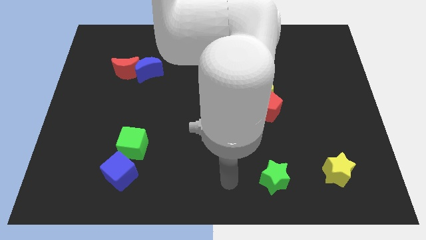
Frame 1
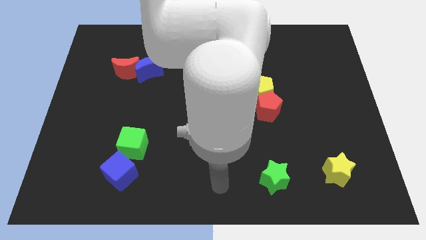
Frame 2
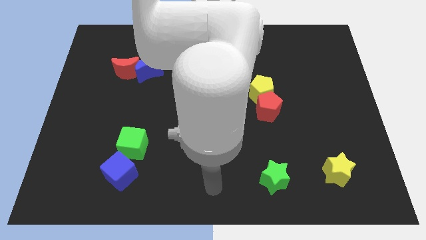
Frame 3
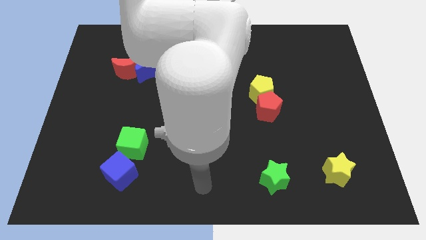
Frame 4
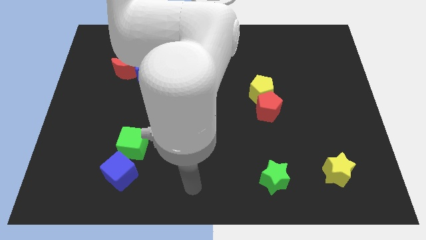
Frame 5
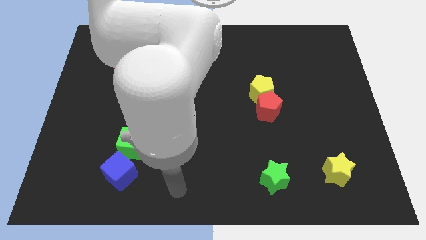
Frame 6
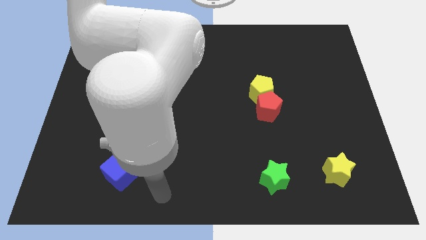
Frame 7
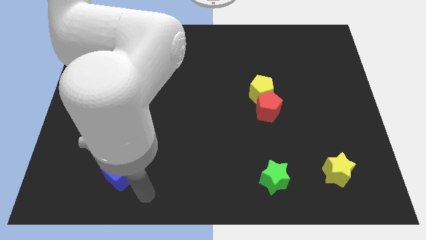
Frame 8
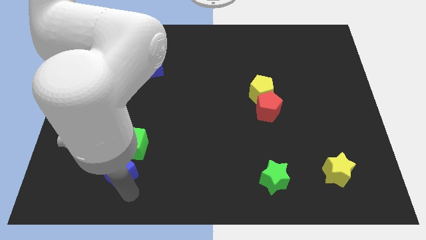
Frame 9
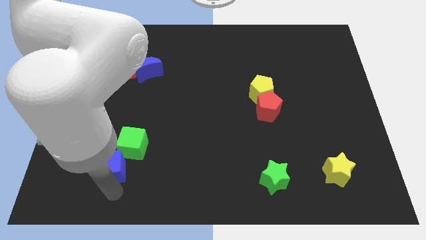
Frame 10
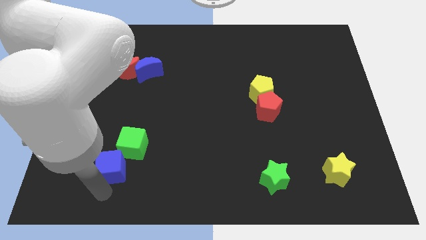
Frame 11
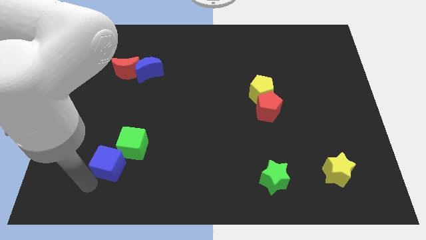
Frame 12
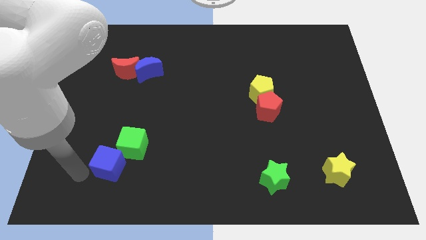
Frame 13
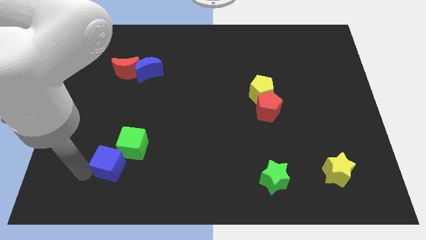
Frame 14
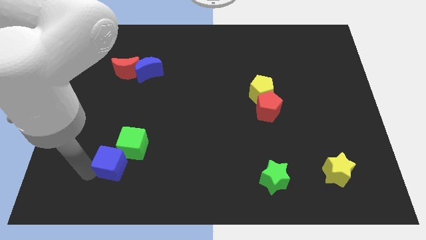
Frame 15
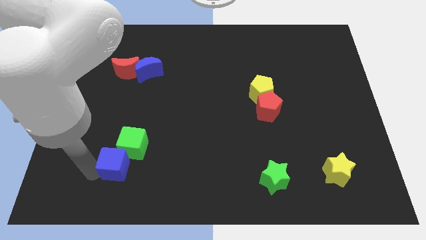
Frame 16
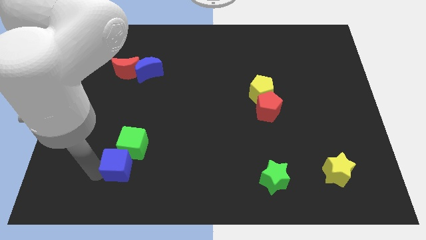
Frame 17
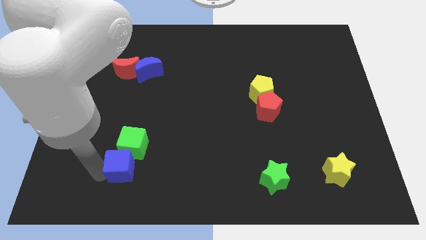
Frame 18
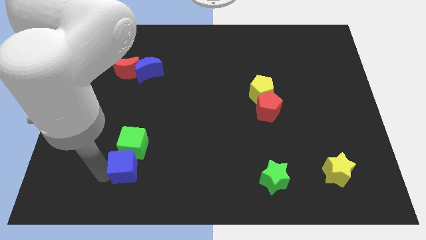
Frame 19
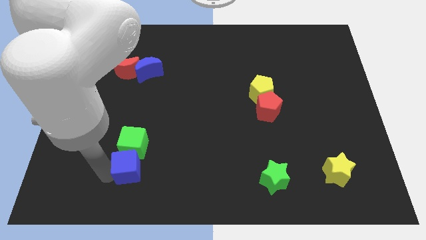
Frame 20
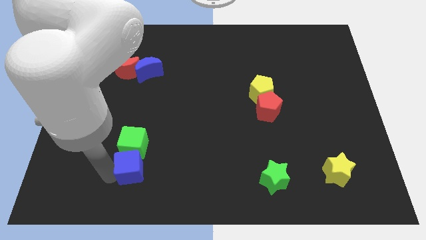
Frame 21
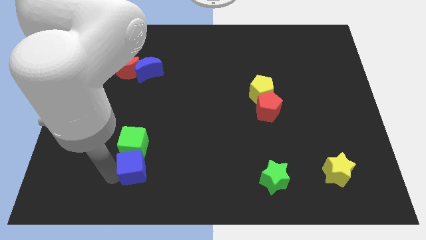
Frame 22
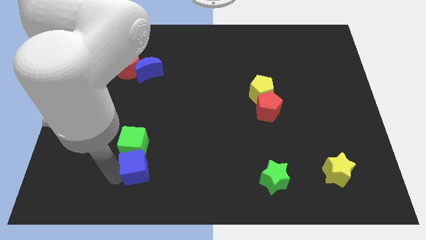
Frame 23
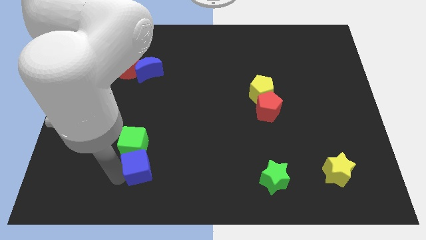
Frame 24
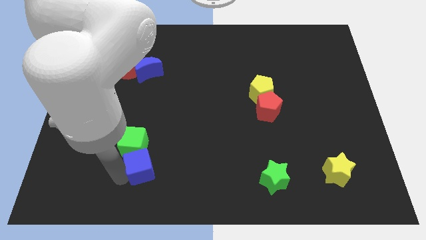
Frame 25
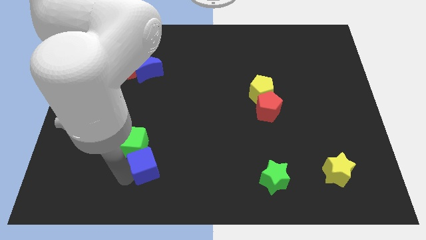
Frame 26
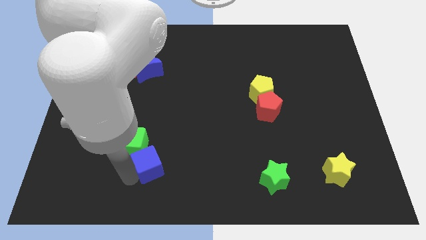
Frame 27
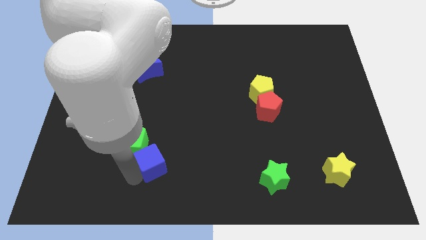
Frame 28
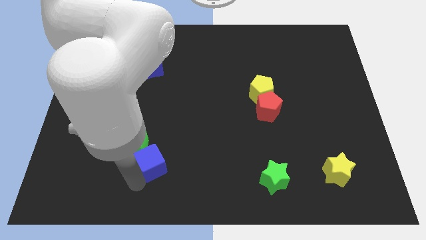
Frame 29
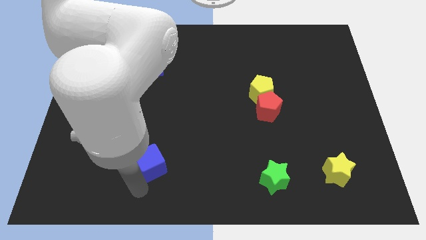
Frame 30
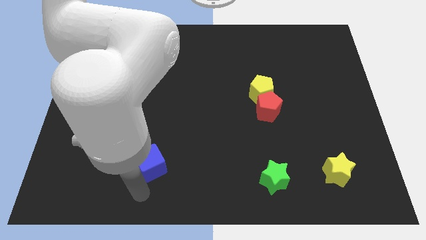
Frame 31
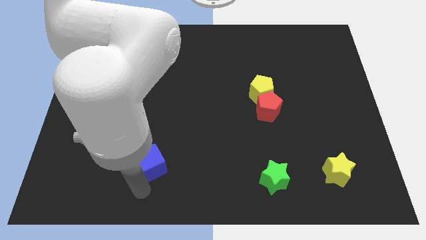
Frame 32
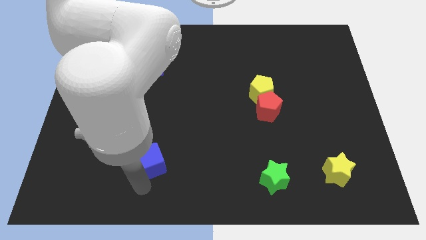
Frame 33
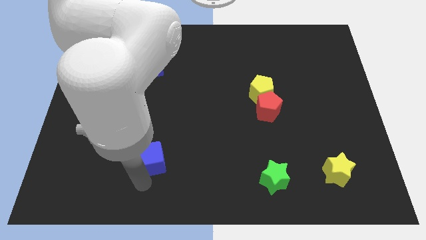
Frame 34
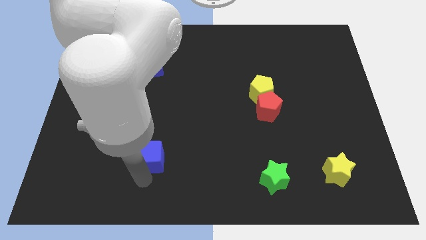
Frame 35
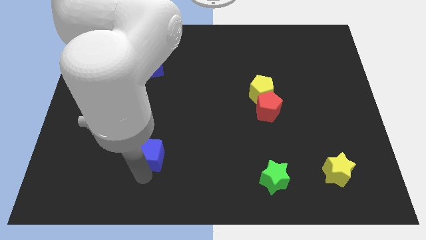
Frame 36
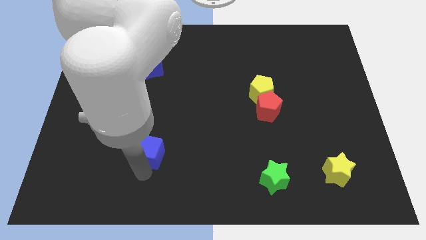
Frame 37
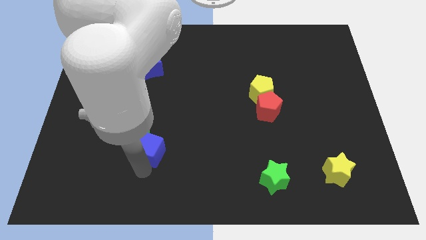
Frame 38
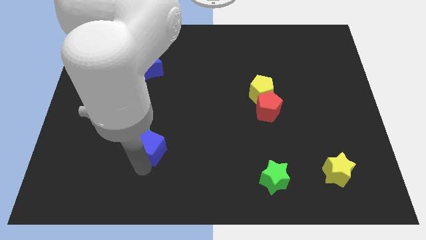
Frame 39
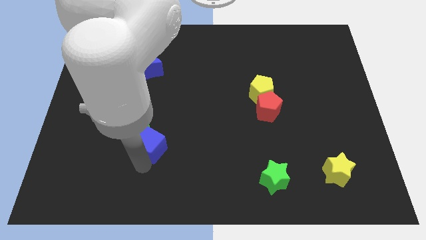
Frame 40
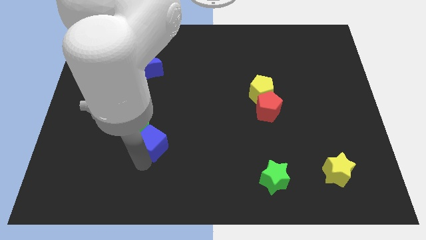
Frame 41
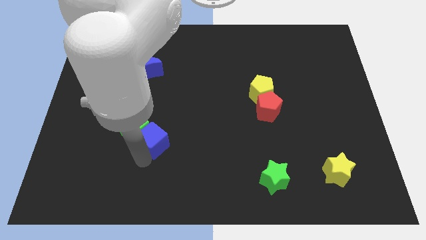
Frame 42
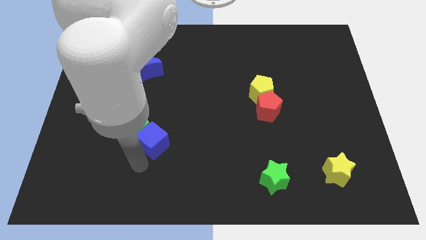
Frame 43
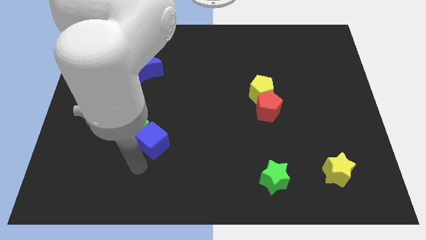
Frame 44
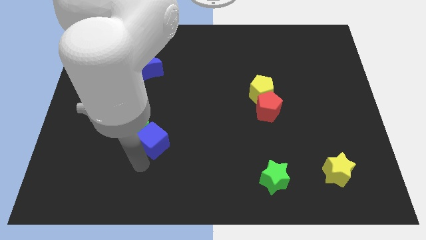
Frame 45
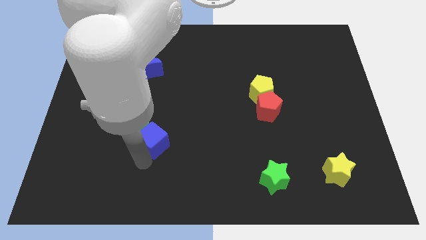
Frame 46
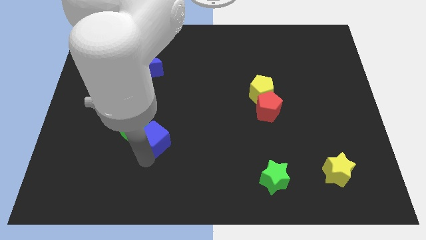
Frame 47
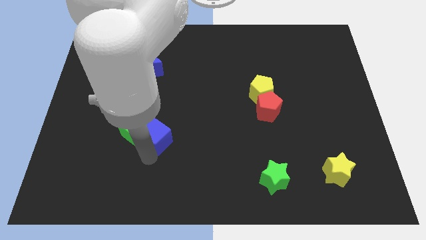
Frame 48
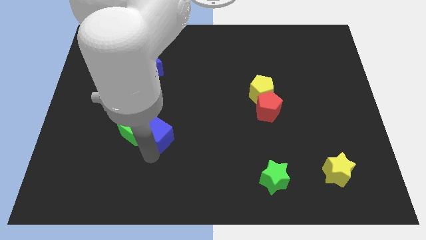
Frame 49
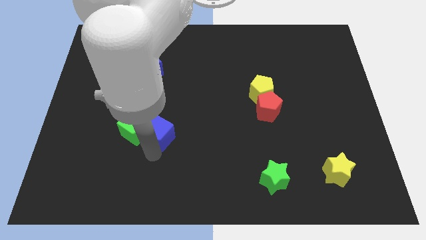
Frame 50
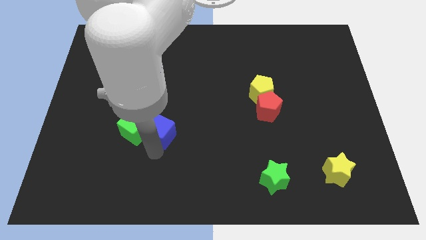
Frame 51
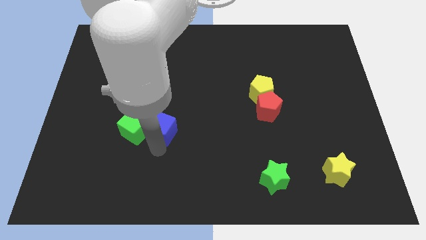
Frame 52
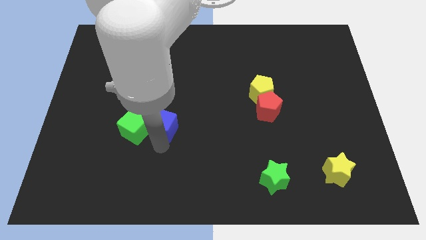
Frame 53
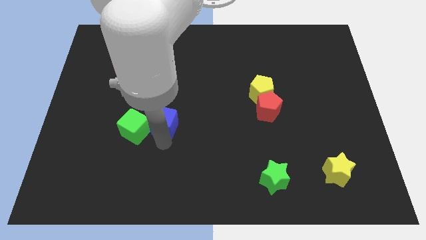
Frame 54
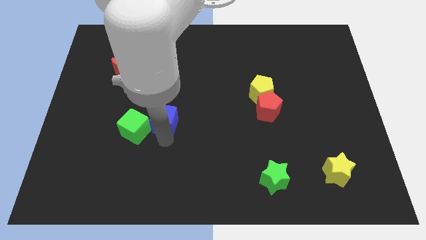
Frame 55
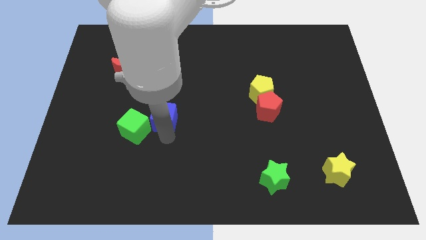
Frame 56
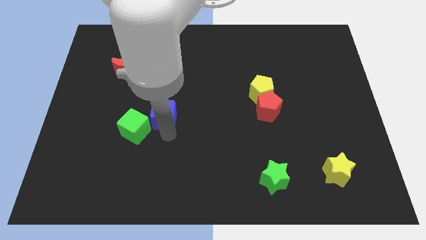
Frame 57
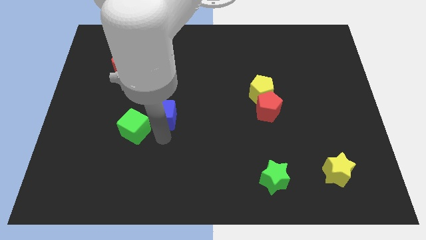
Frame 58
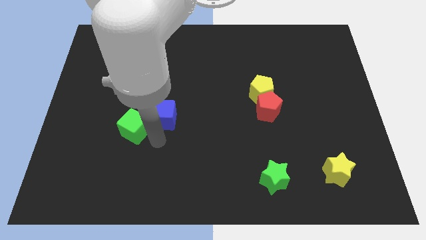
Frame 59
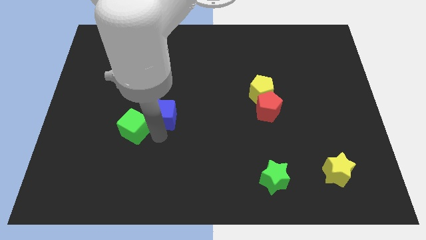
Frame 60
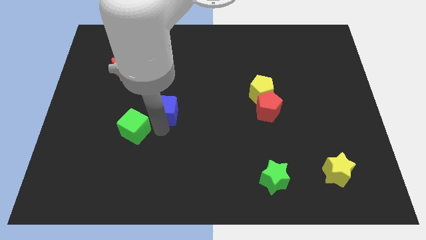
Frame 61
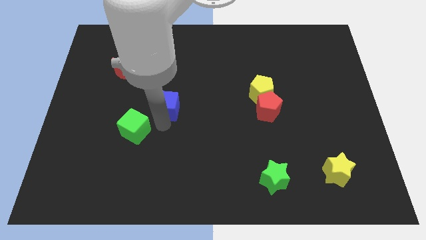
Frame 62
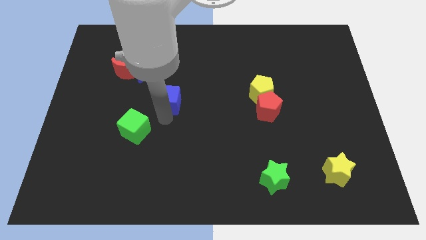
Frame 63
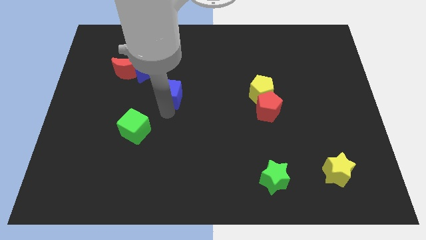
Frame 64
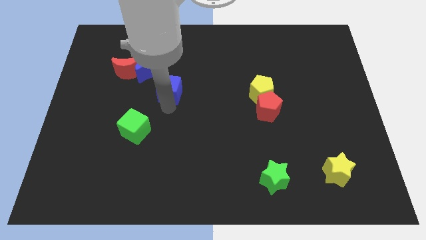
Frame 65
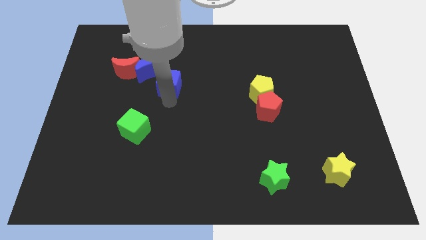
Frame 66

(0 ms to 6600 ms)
move the blue cube up

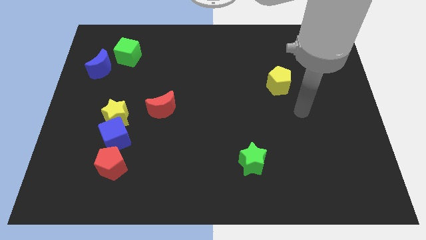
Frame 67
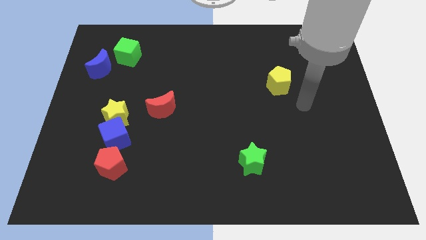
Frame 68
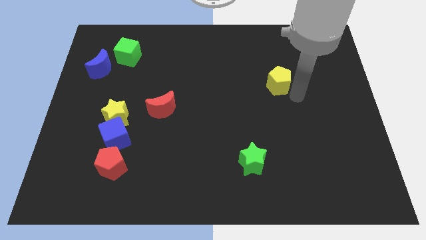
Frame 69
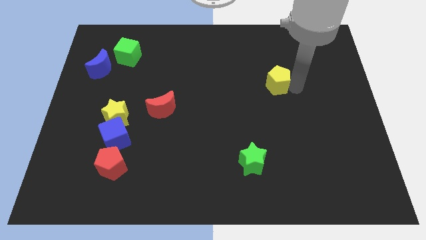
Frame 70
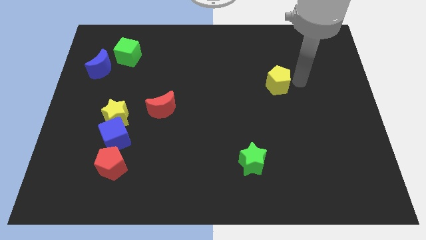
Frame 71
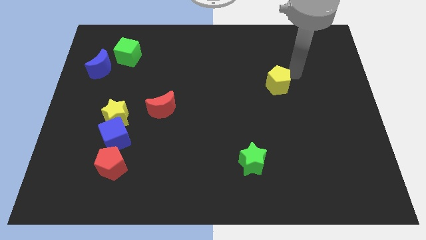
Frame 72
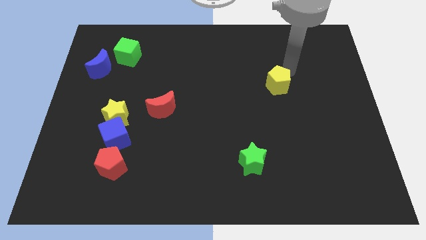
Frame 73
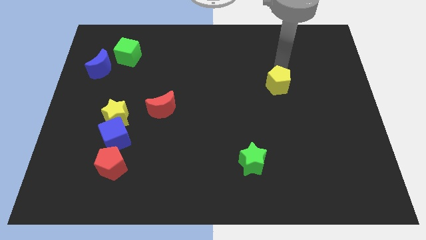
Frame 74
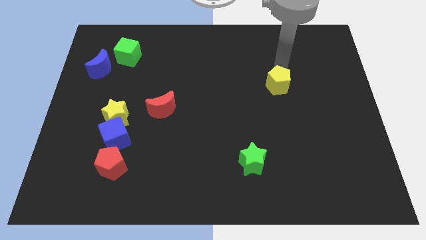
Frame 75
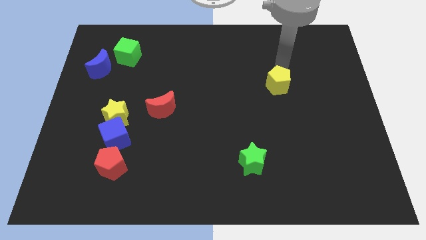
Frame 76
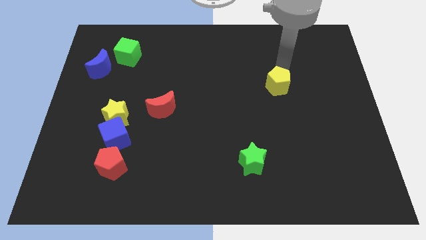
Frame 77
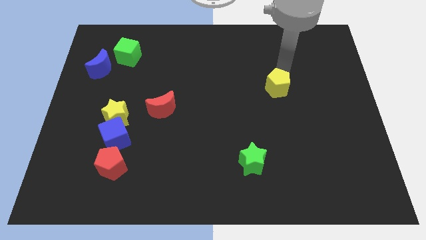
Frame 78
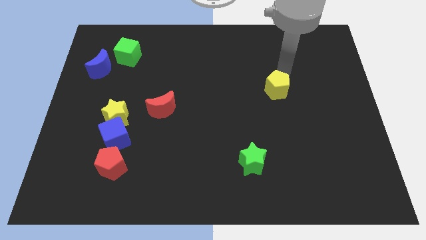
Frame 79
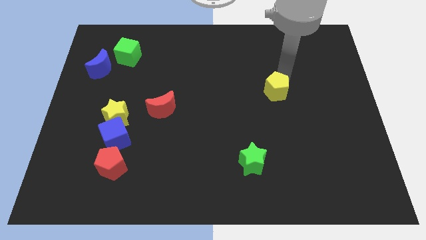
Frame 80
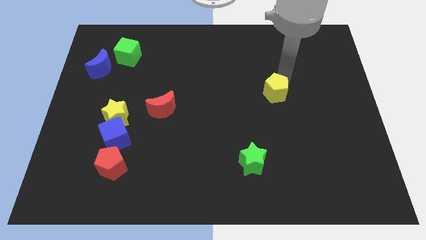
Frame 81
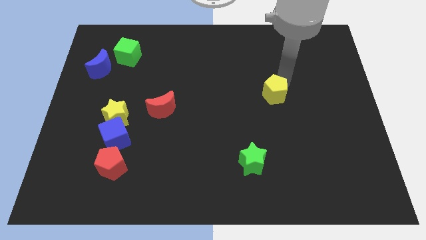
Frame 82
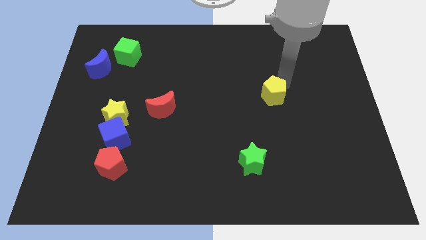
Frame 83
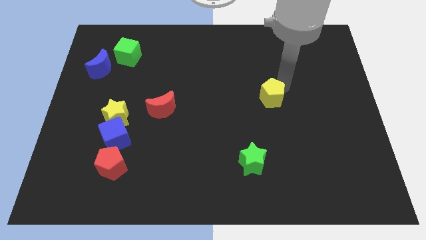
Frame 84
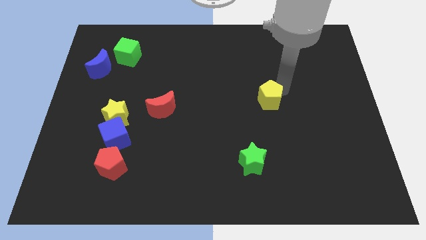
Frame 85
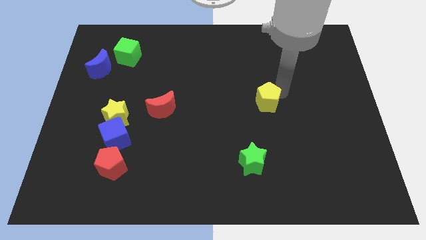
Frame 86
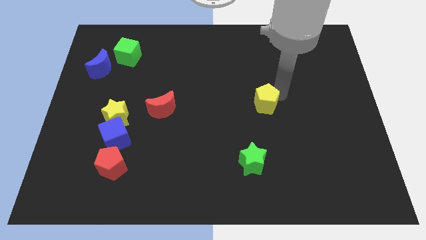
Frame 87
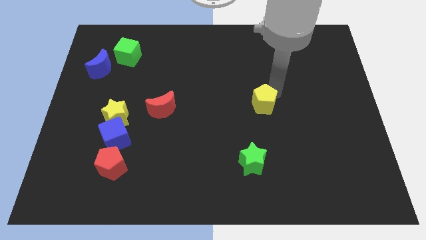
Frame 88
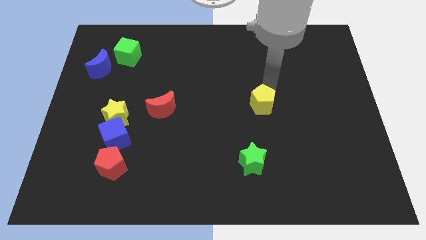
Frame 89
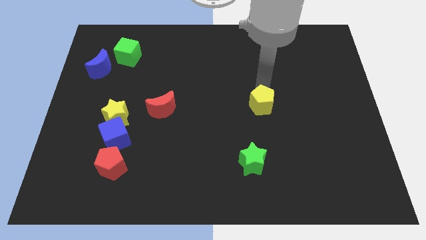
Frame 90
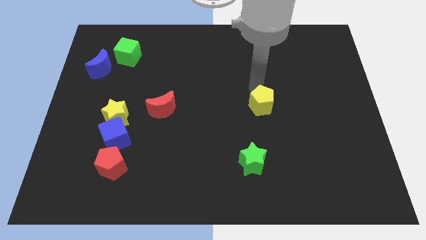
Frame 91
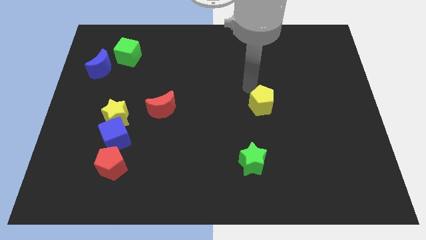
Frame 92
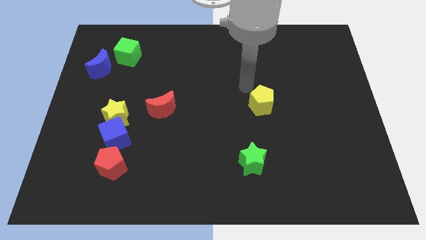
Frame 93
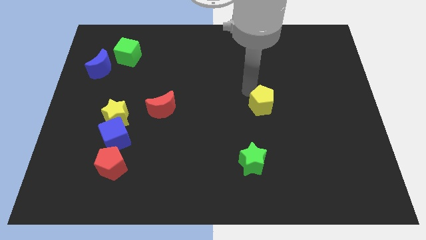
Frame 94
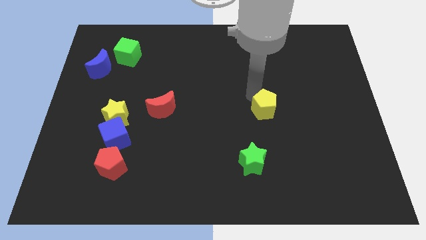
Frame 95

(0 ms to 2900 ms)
slightly push the yellow pentagon down
